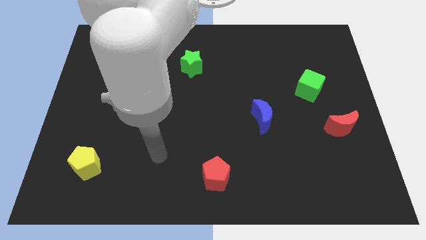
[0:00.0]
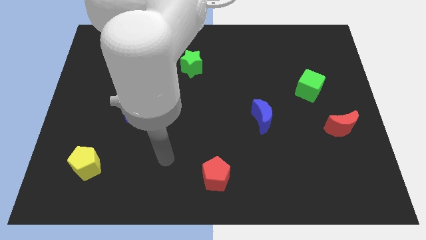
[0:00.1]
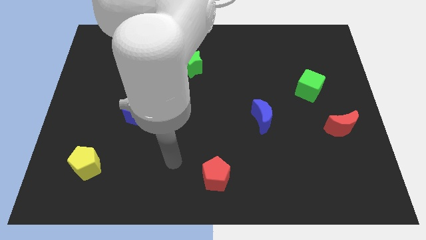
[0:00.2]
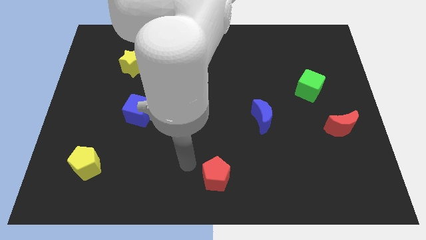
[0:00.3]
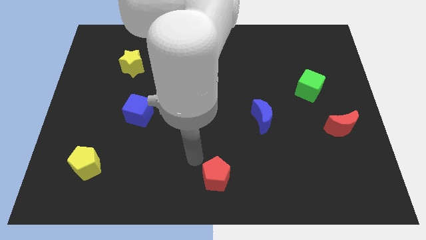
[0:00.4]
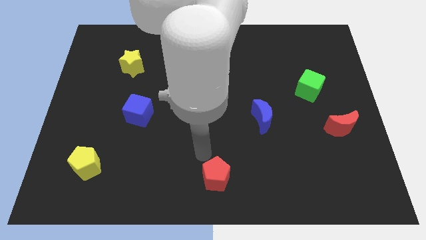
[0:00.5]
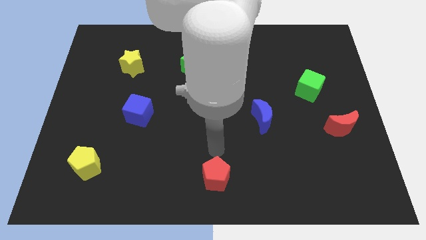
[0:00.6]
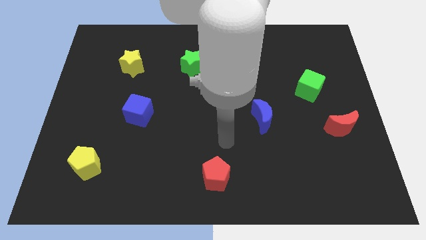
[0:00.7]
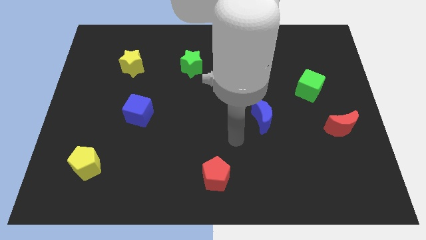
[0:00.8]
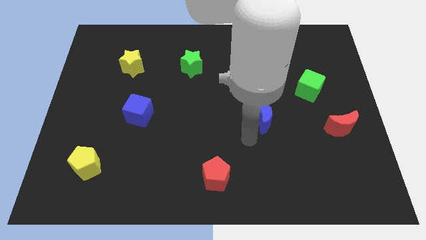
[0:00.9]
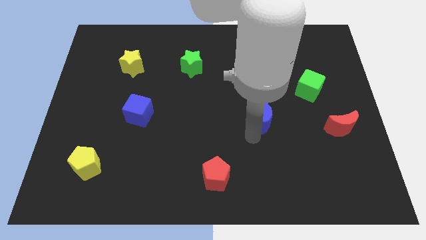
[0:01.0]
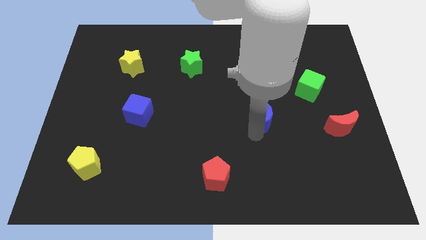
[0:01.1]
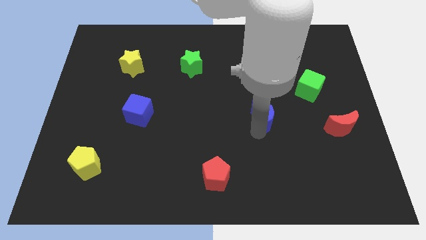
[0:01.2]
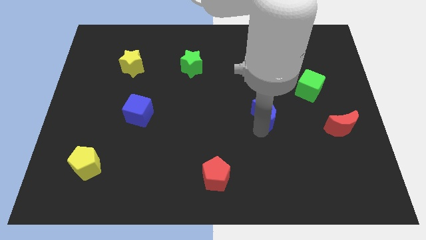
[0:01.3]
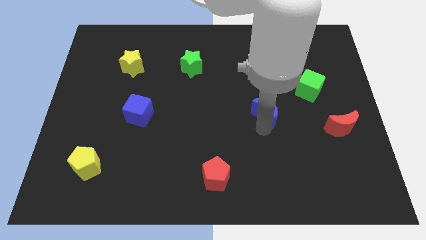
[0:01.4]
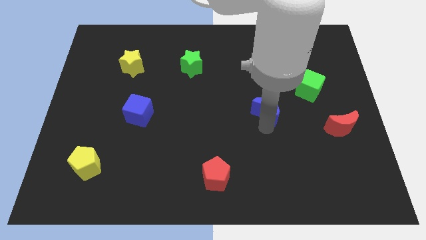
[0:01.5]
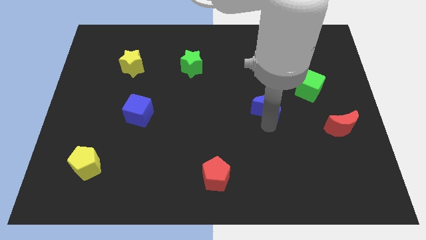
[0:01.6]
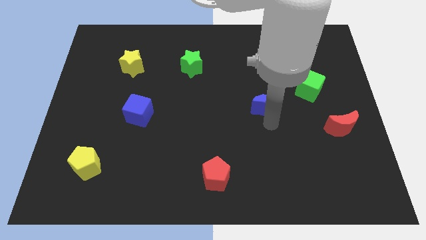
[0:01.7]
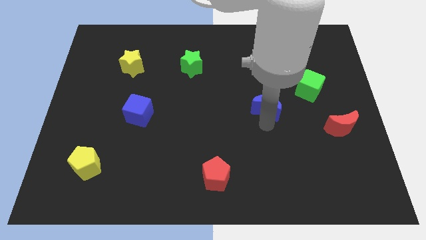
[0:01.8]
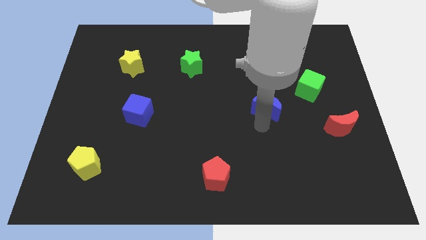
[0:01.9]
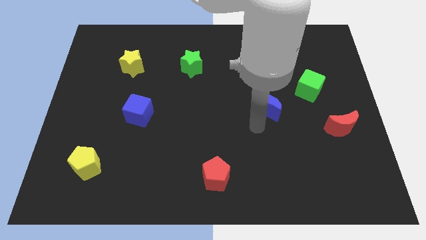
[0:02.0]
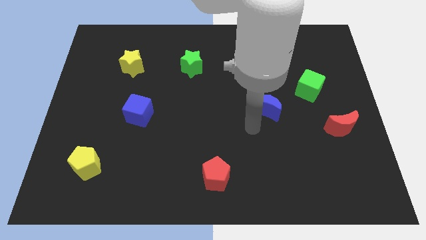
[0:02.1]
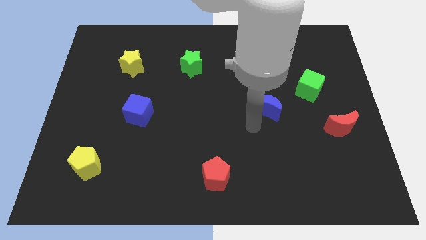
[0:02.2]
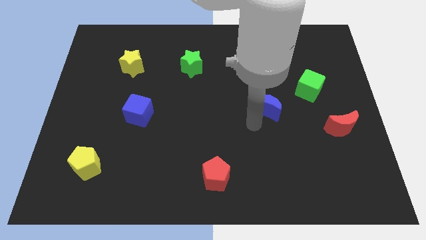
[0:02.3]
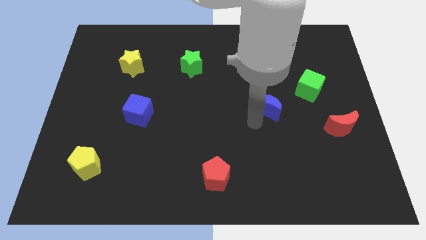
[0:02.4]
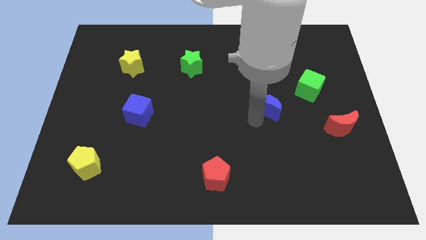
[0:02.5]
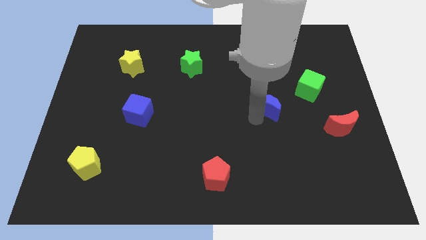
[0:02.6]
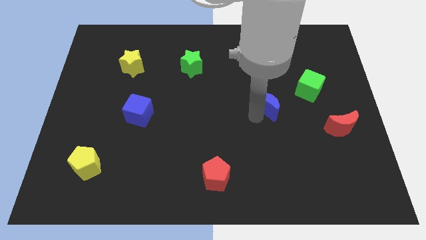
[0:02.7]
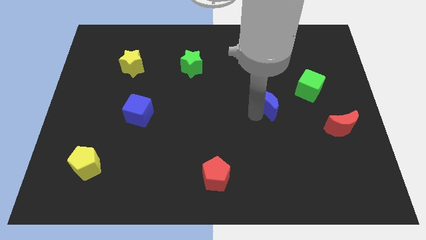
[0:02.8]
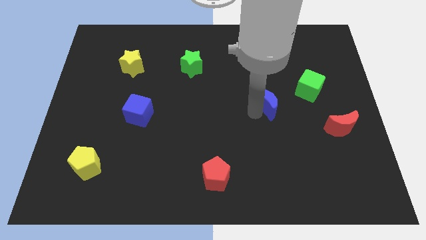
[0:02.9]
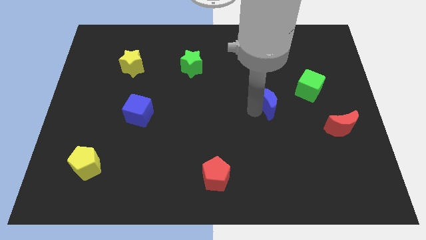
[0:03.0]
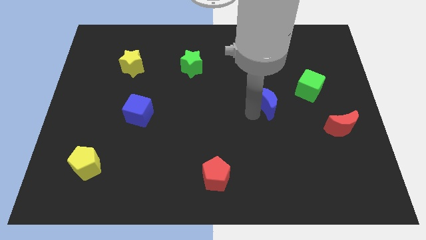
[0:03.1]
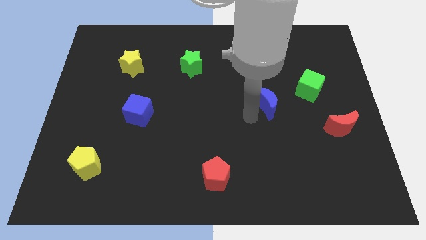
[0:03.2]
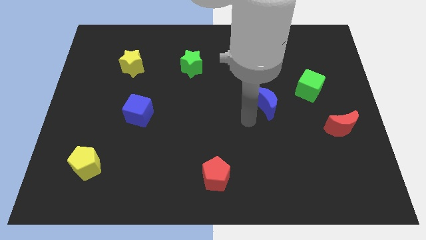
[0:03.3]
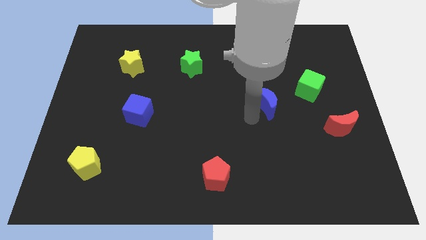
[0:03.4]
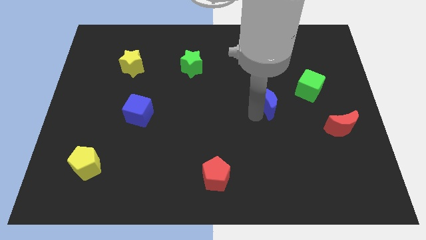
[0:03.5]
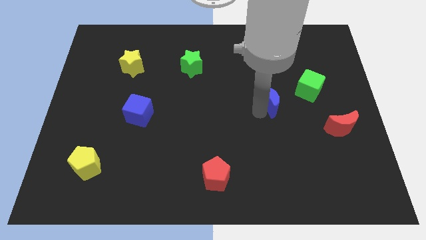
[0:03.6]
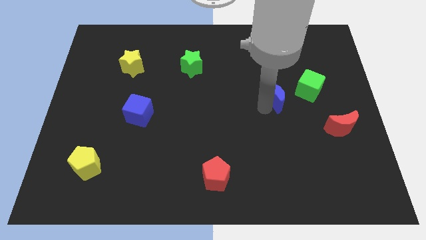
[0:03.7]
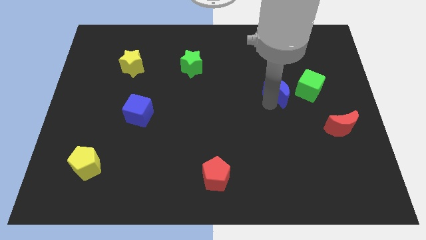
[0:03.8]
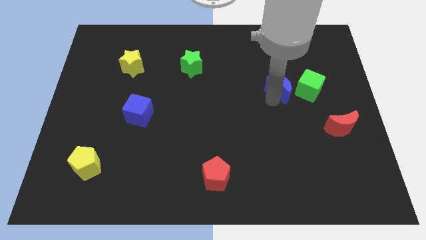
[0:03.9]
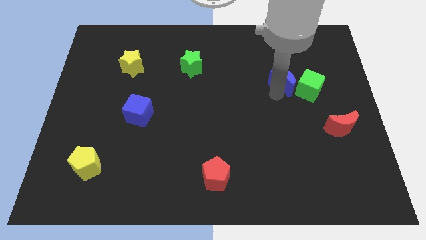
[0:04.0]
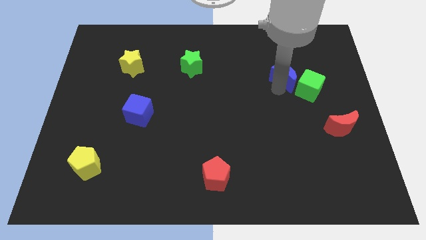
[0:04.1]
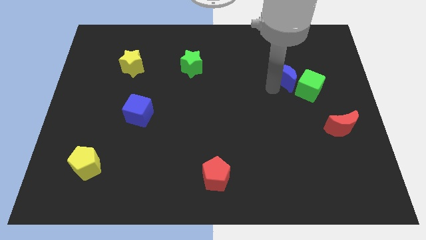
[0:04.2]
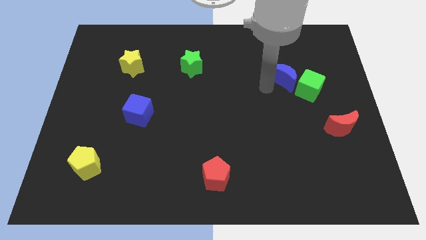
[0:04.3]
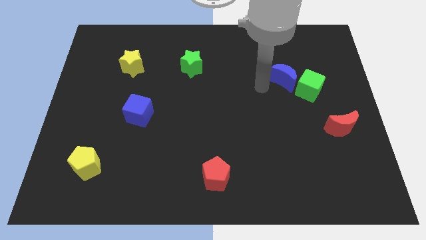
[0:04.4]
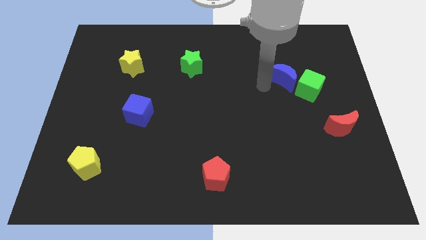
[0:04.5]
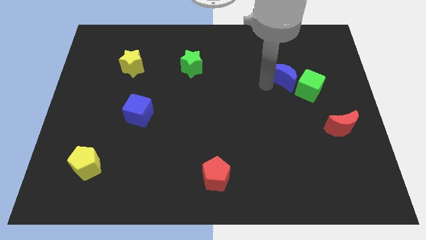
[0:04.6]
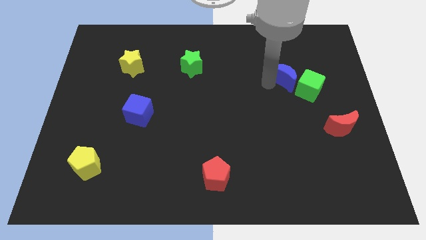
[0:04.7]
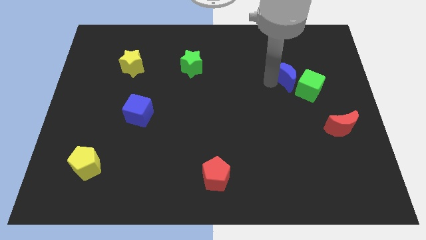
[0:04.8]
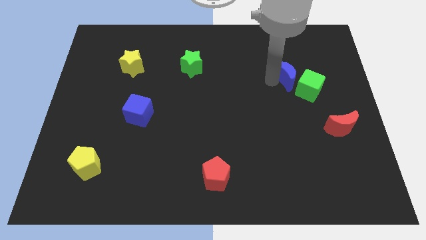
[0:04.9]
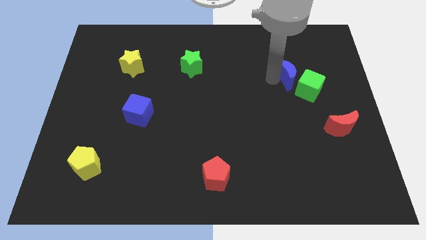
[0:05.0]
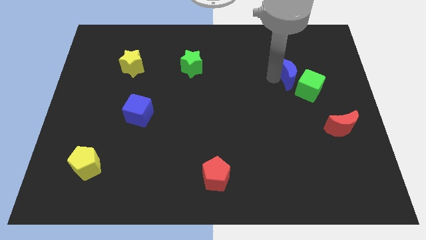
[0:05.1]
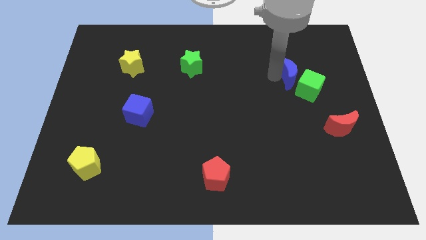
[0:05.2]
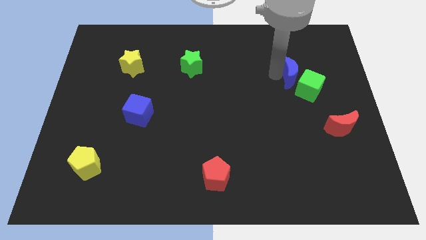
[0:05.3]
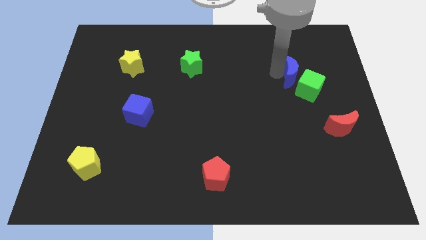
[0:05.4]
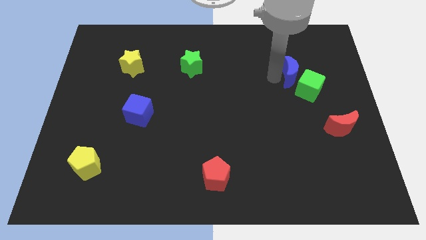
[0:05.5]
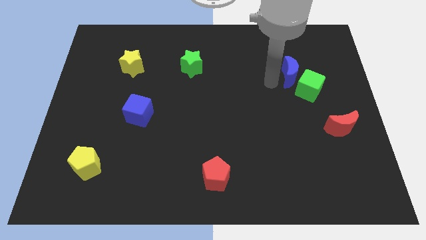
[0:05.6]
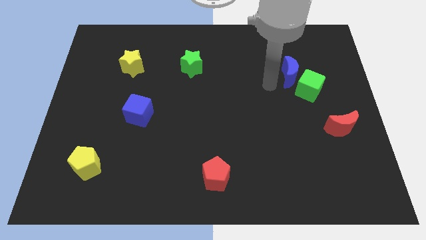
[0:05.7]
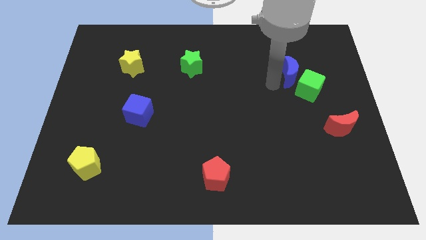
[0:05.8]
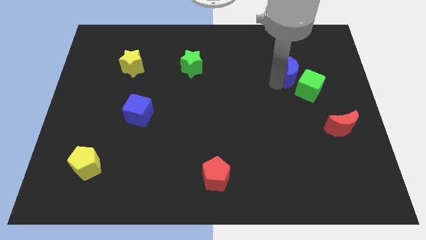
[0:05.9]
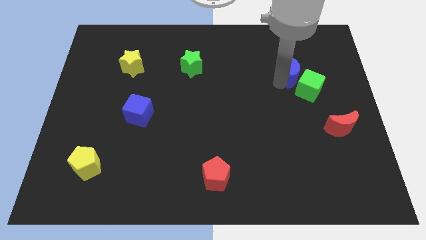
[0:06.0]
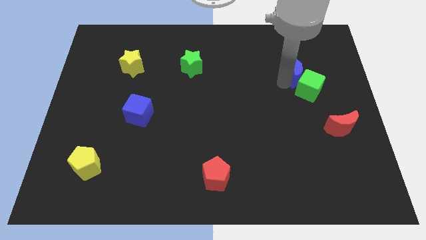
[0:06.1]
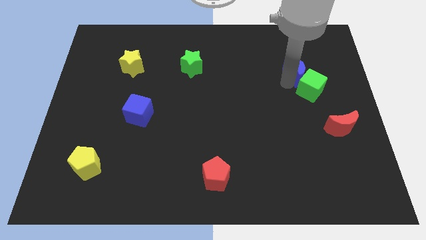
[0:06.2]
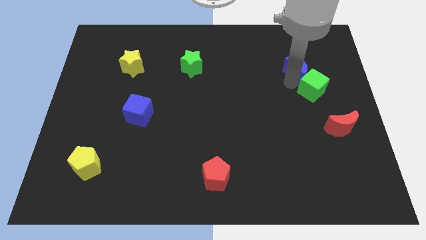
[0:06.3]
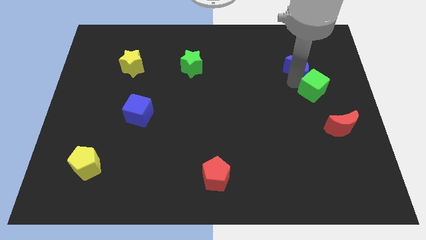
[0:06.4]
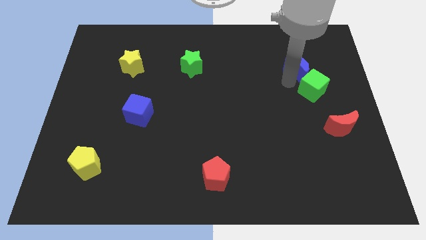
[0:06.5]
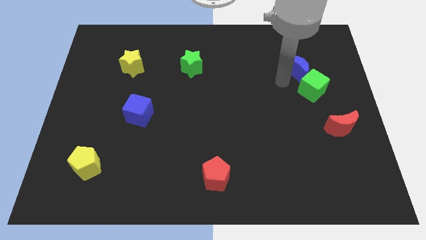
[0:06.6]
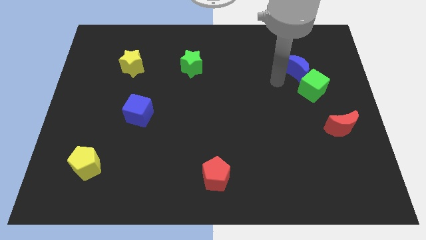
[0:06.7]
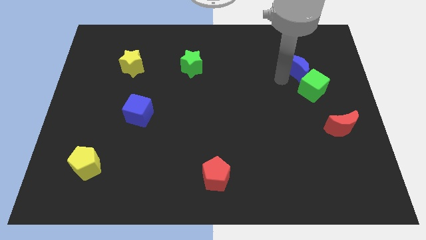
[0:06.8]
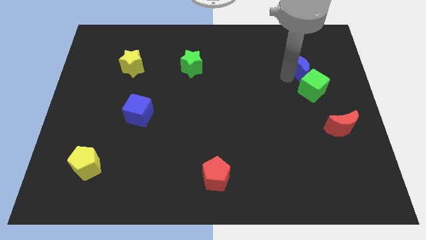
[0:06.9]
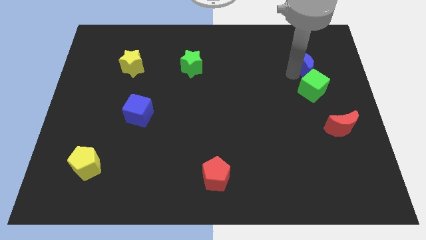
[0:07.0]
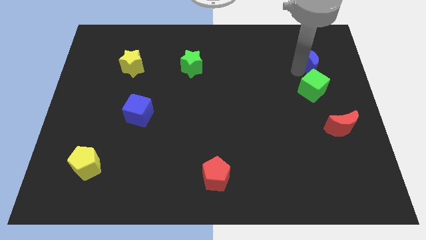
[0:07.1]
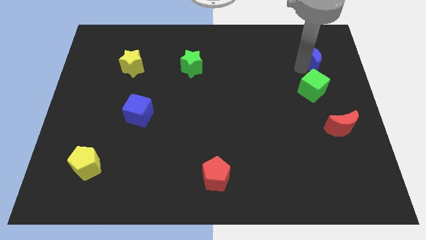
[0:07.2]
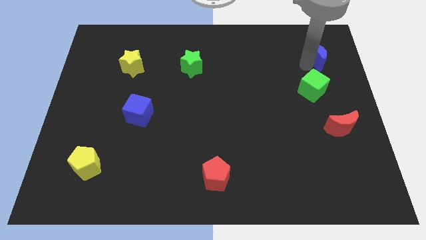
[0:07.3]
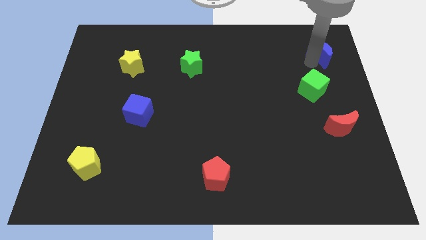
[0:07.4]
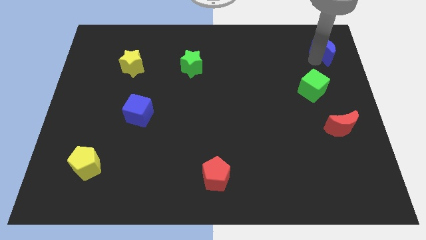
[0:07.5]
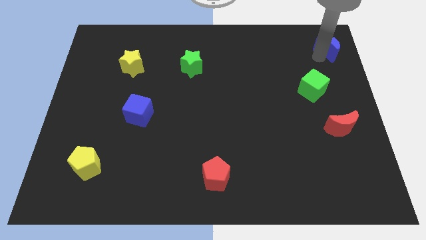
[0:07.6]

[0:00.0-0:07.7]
put the blue moon to the upper right corner
